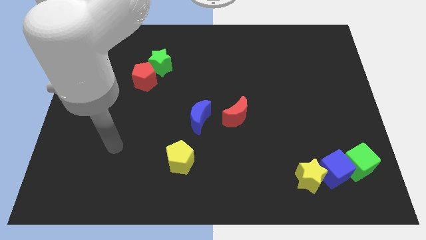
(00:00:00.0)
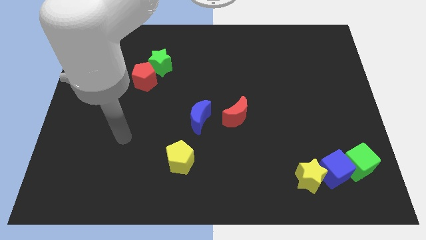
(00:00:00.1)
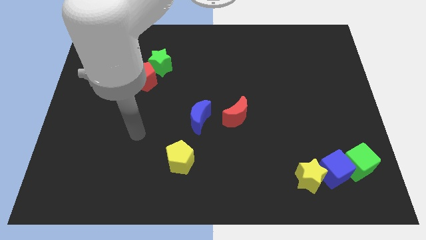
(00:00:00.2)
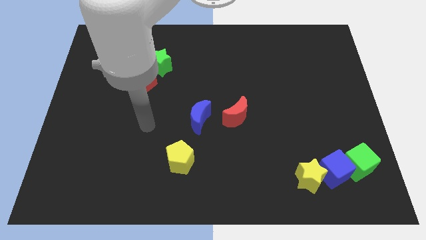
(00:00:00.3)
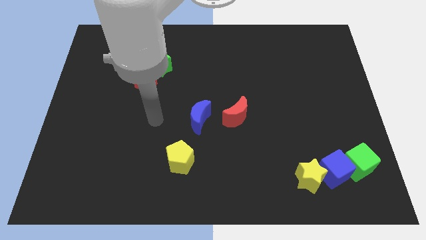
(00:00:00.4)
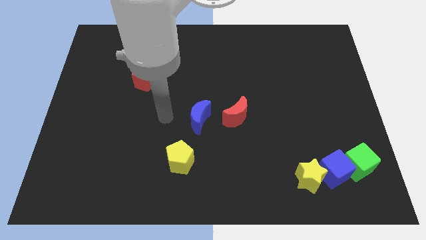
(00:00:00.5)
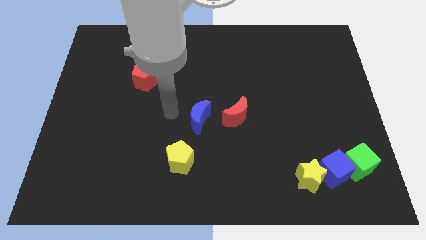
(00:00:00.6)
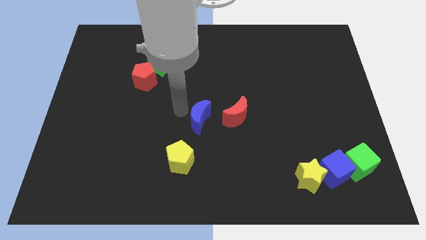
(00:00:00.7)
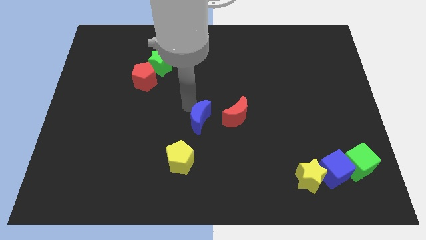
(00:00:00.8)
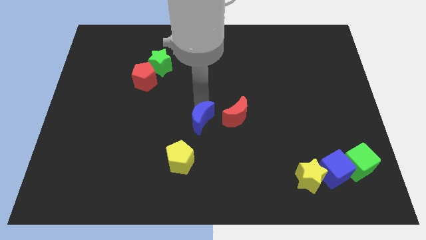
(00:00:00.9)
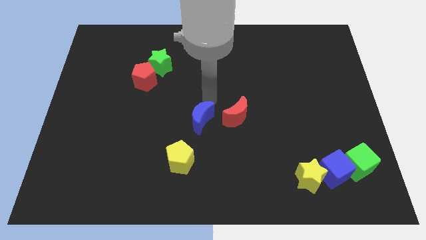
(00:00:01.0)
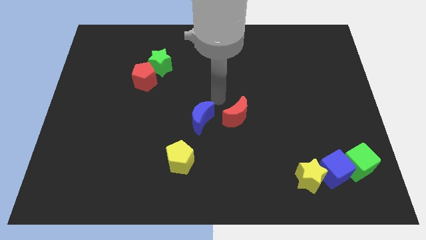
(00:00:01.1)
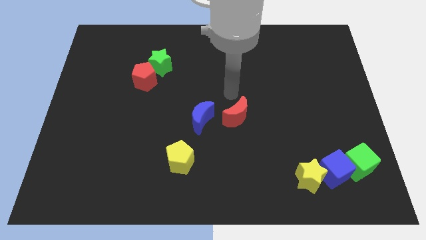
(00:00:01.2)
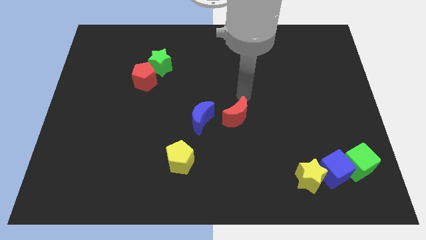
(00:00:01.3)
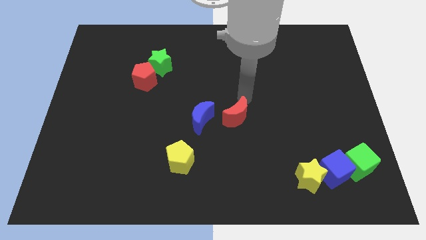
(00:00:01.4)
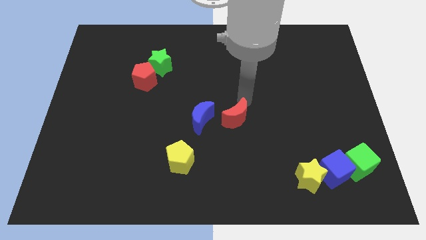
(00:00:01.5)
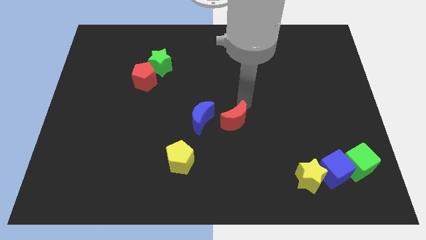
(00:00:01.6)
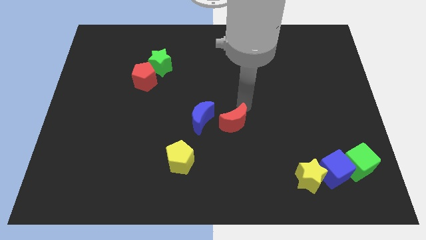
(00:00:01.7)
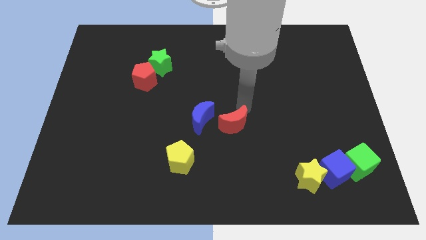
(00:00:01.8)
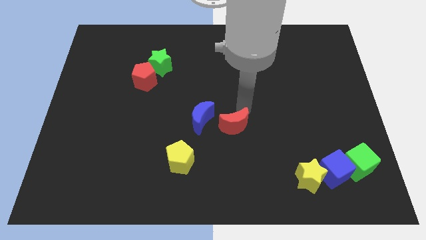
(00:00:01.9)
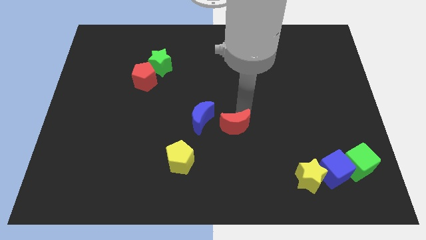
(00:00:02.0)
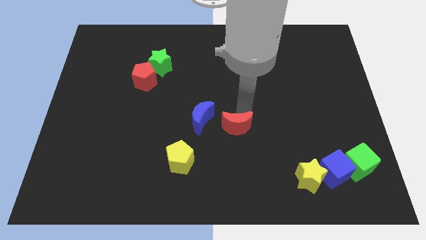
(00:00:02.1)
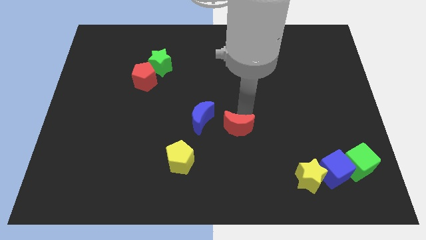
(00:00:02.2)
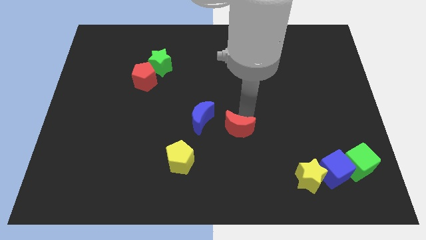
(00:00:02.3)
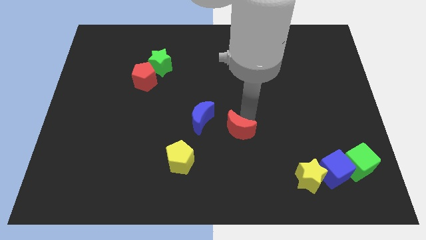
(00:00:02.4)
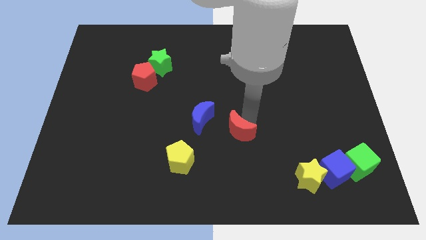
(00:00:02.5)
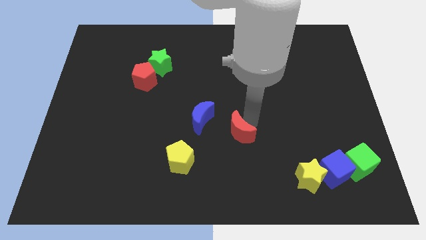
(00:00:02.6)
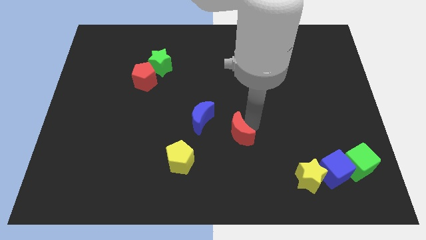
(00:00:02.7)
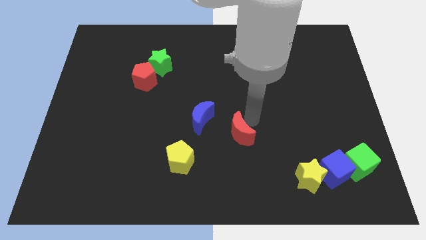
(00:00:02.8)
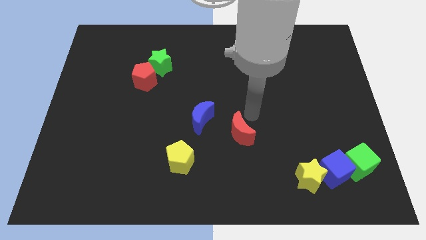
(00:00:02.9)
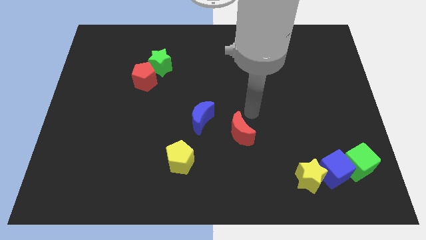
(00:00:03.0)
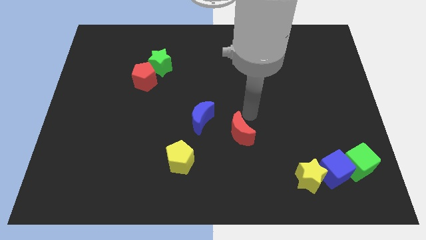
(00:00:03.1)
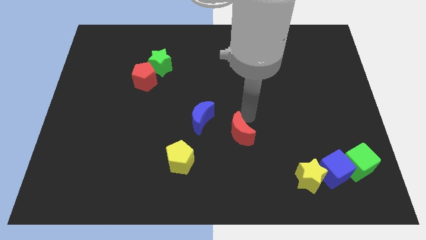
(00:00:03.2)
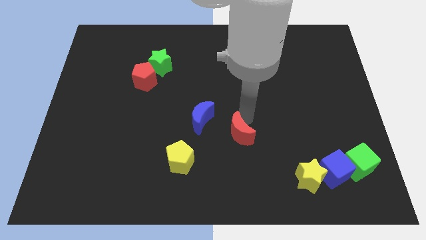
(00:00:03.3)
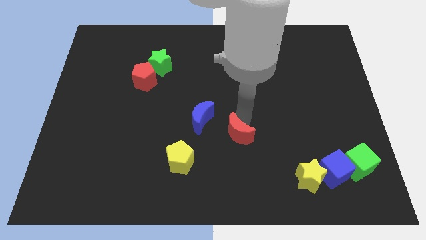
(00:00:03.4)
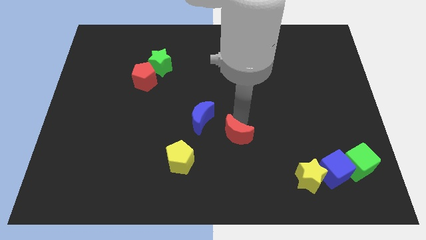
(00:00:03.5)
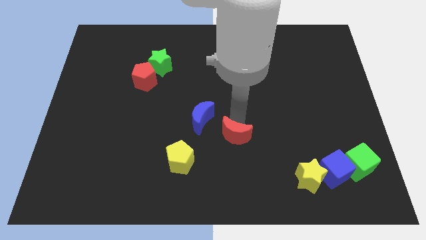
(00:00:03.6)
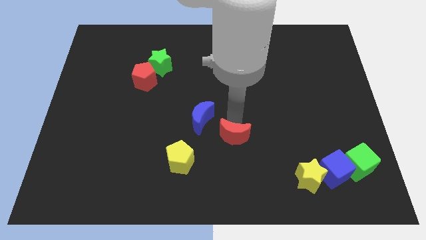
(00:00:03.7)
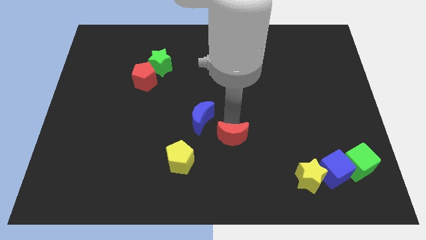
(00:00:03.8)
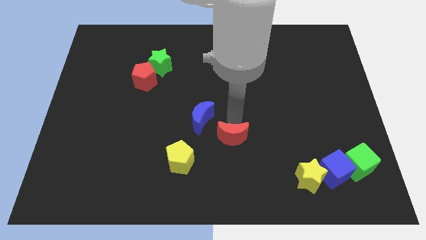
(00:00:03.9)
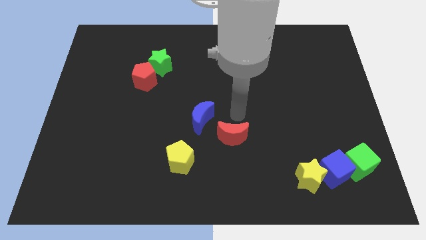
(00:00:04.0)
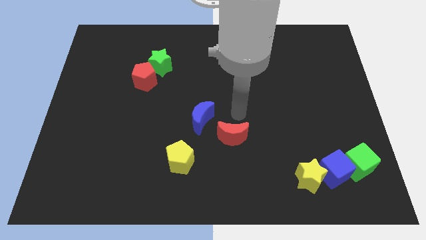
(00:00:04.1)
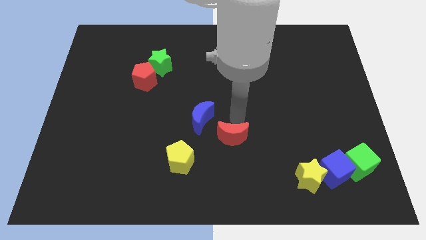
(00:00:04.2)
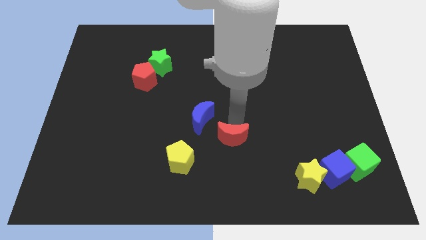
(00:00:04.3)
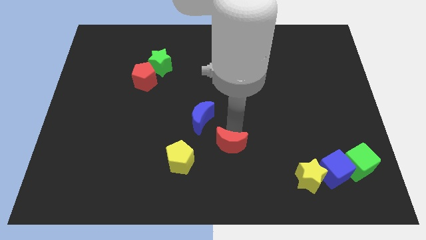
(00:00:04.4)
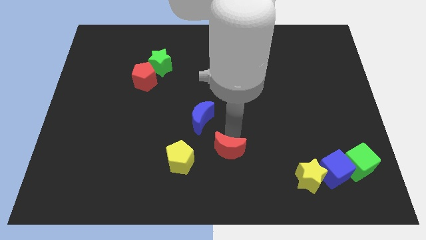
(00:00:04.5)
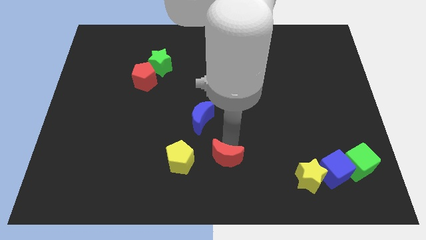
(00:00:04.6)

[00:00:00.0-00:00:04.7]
slide the red moon to the bottom side

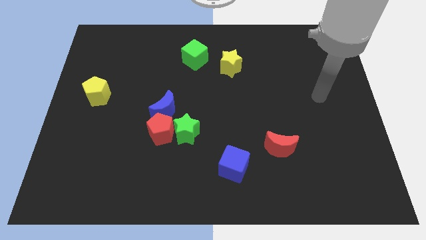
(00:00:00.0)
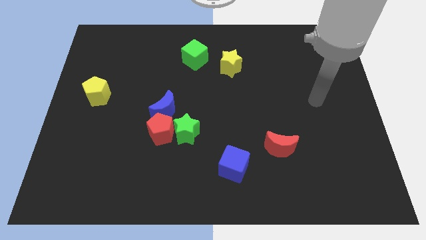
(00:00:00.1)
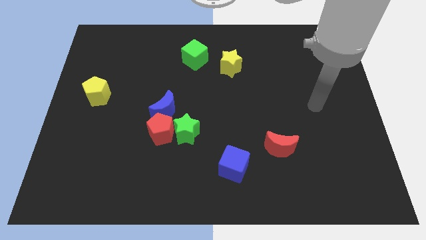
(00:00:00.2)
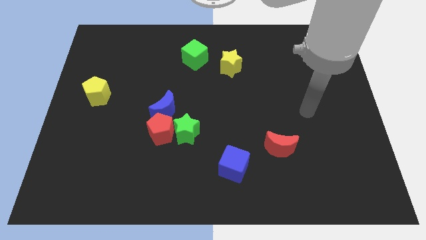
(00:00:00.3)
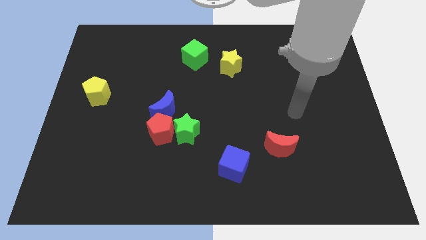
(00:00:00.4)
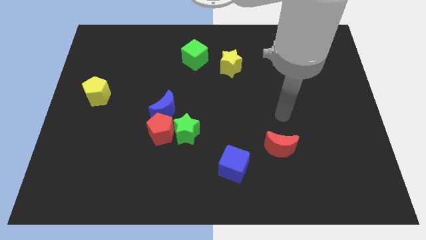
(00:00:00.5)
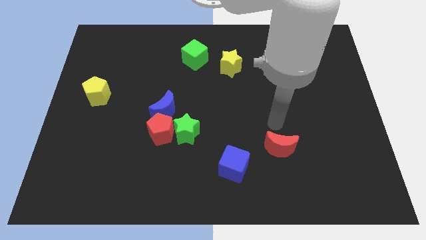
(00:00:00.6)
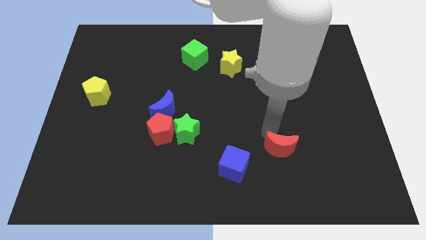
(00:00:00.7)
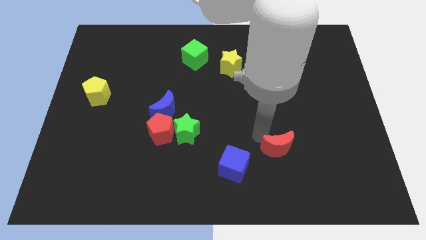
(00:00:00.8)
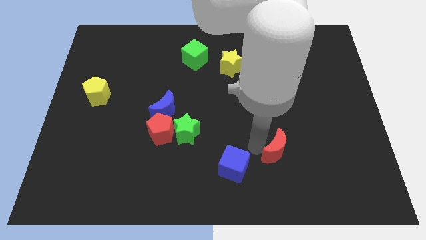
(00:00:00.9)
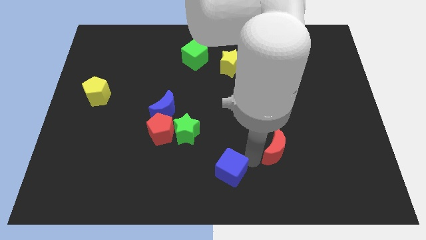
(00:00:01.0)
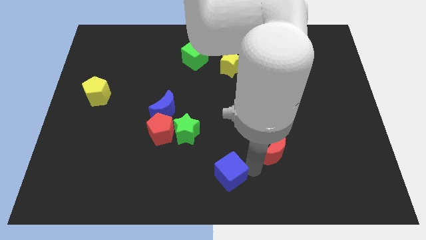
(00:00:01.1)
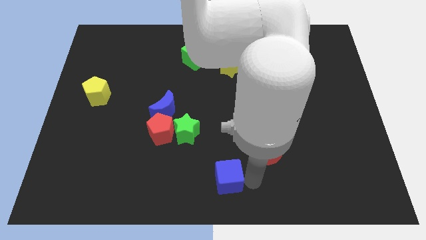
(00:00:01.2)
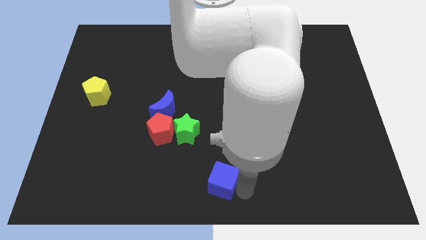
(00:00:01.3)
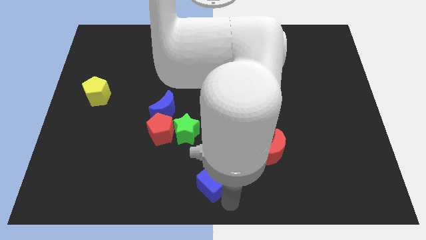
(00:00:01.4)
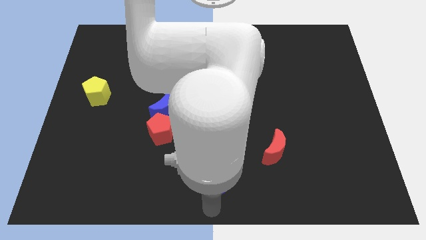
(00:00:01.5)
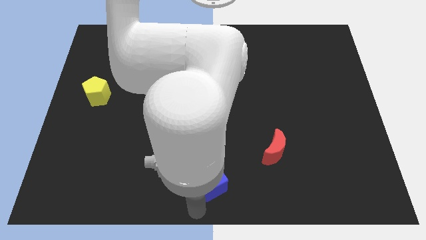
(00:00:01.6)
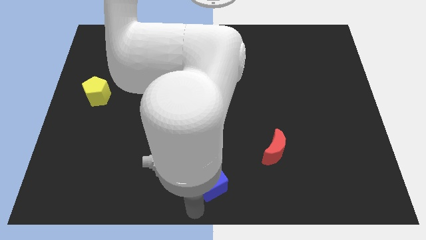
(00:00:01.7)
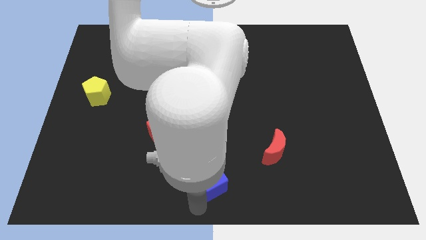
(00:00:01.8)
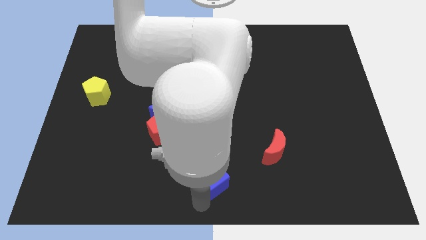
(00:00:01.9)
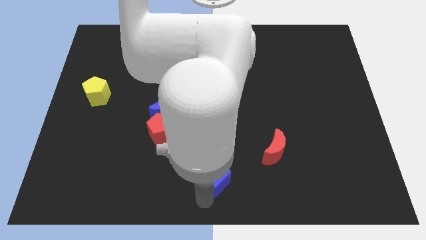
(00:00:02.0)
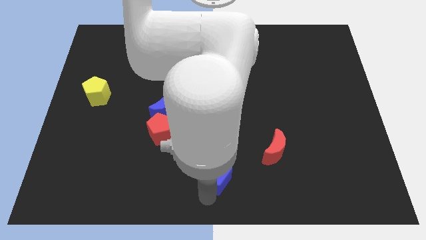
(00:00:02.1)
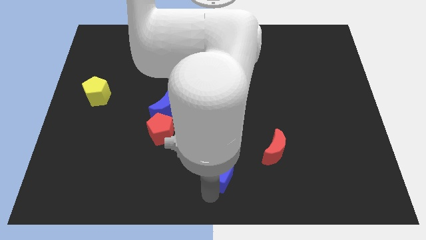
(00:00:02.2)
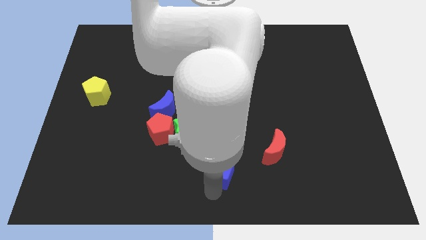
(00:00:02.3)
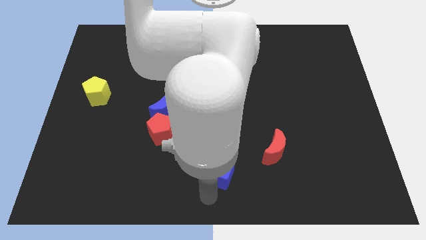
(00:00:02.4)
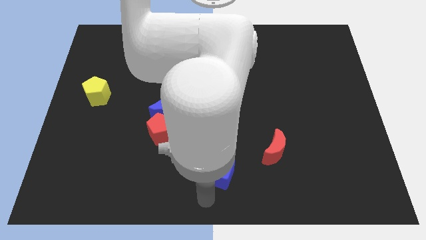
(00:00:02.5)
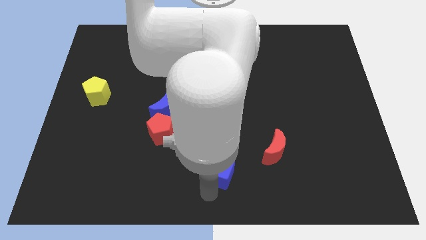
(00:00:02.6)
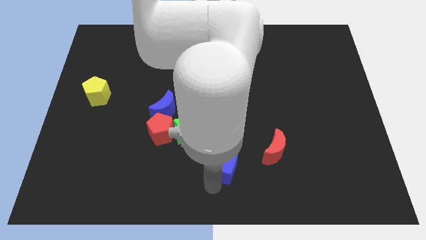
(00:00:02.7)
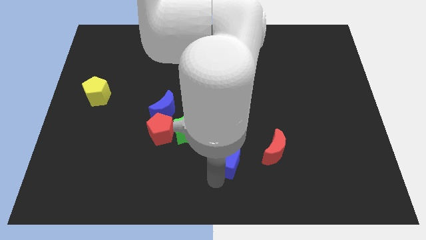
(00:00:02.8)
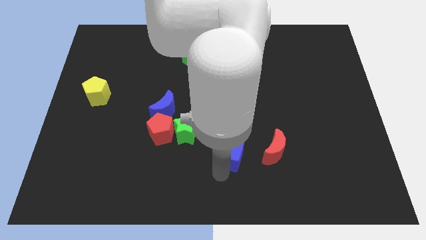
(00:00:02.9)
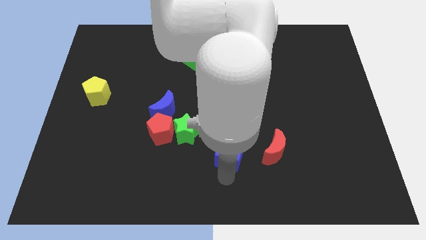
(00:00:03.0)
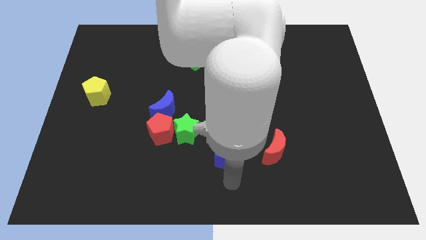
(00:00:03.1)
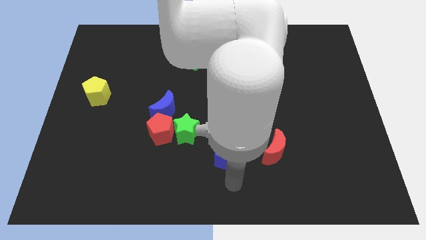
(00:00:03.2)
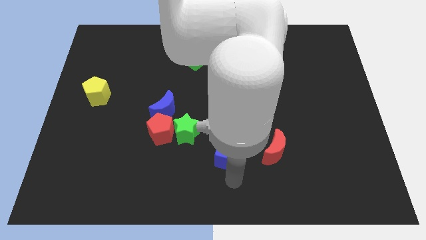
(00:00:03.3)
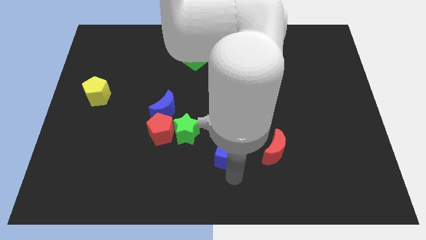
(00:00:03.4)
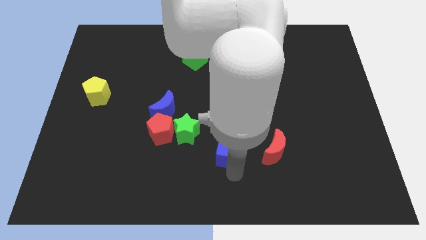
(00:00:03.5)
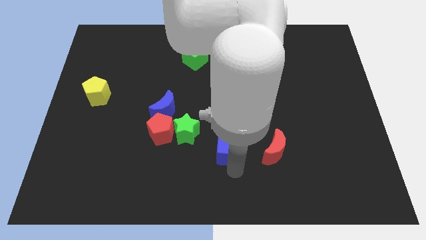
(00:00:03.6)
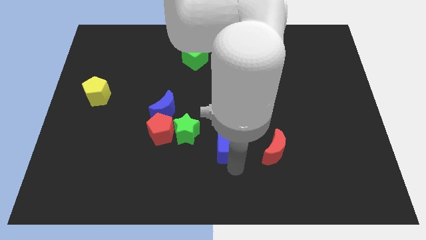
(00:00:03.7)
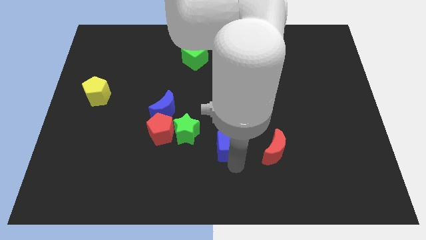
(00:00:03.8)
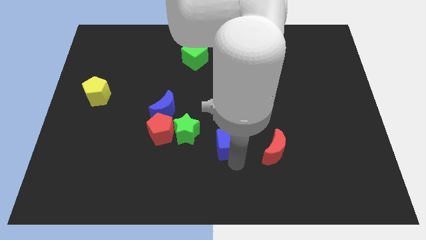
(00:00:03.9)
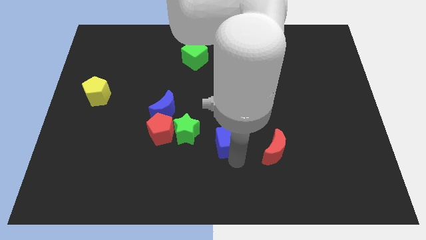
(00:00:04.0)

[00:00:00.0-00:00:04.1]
put the blue cube to the middle
